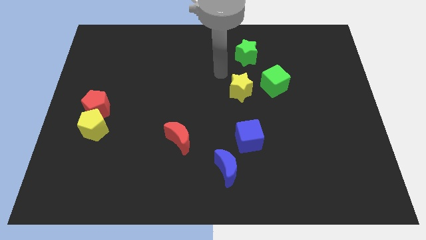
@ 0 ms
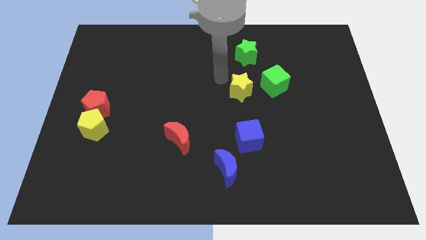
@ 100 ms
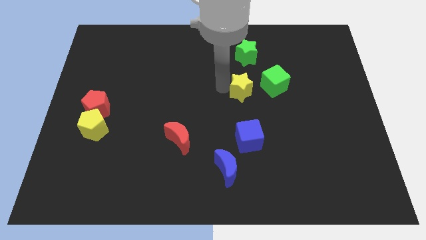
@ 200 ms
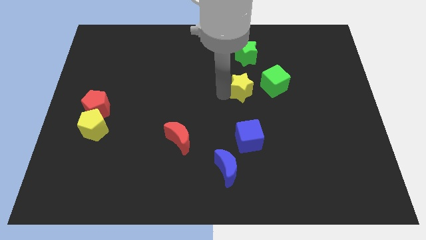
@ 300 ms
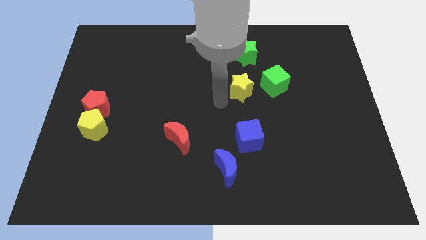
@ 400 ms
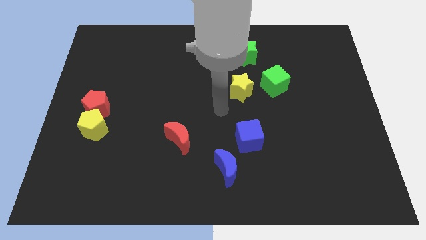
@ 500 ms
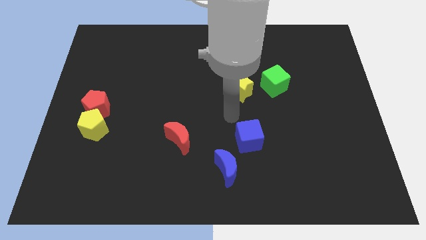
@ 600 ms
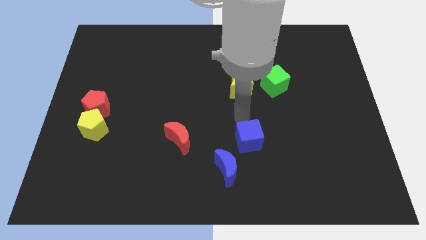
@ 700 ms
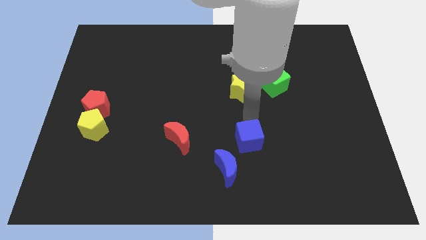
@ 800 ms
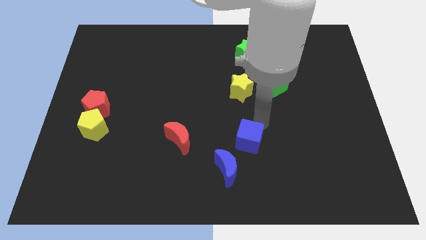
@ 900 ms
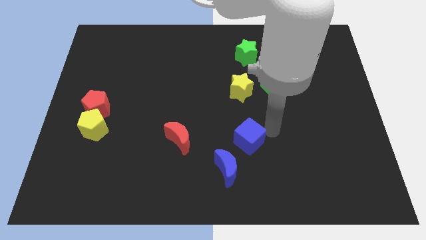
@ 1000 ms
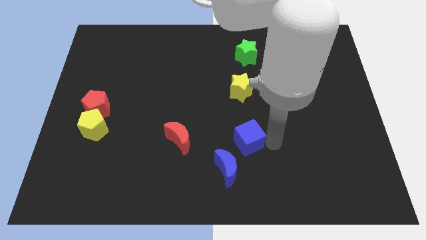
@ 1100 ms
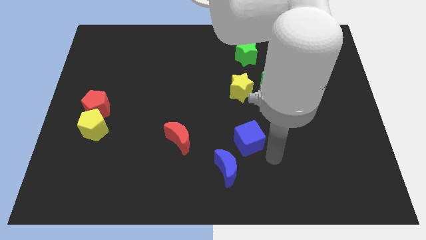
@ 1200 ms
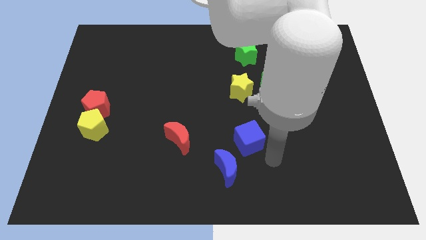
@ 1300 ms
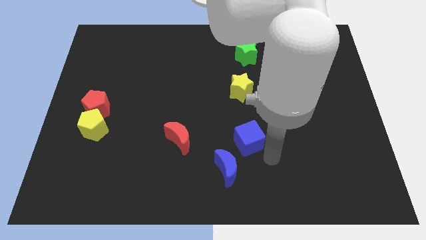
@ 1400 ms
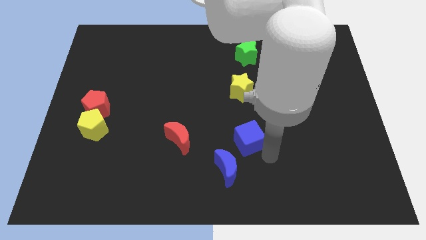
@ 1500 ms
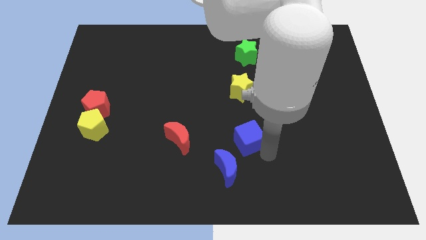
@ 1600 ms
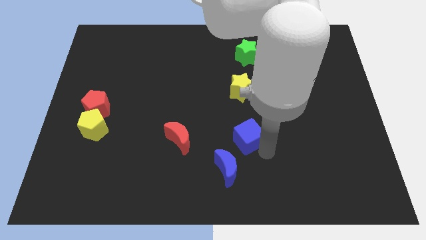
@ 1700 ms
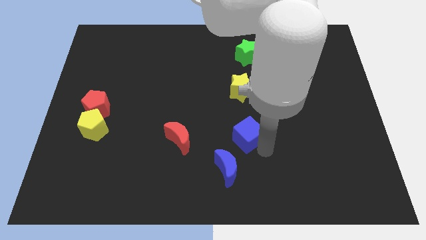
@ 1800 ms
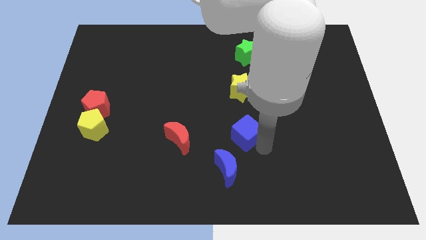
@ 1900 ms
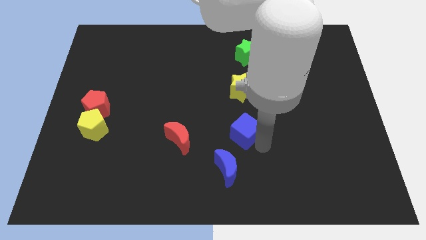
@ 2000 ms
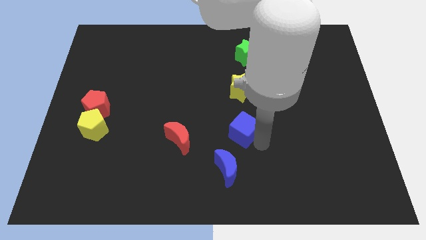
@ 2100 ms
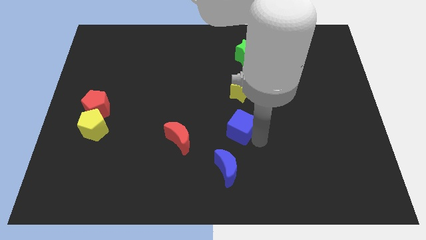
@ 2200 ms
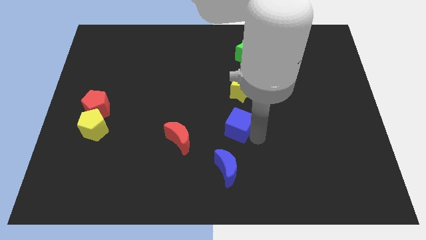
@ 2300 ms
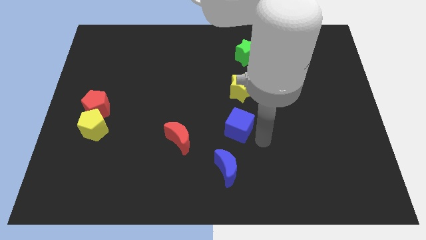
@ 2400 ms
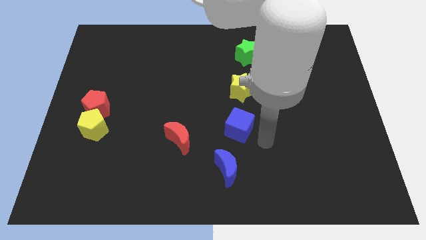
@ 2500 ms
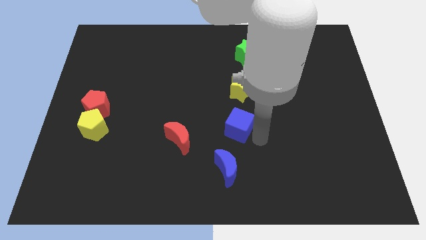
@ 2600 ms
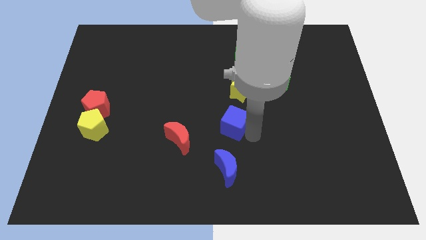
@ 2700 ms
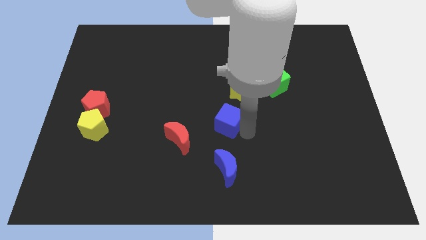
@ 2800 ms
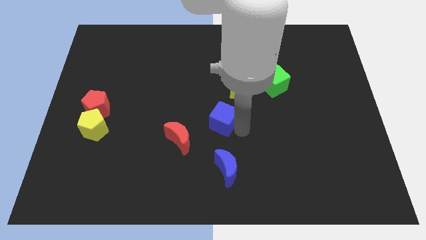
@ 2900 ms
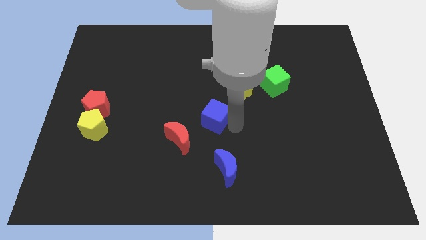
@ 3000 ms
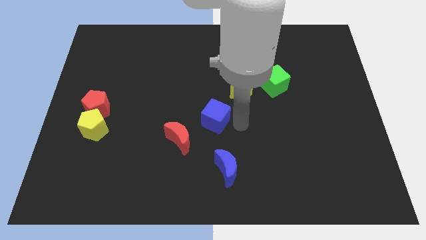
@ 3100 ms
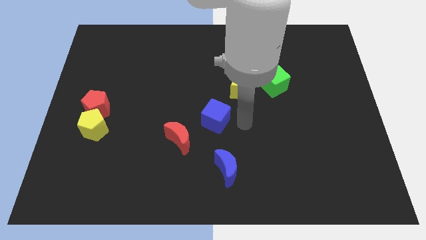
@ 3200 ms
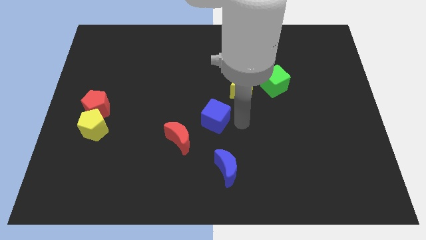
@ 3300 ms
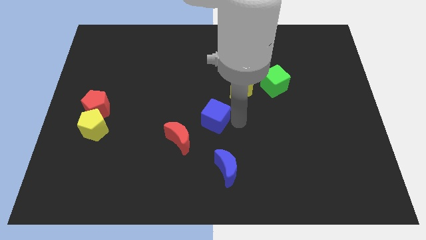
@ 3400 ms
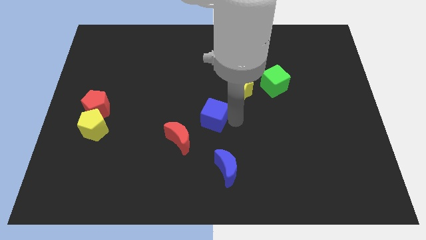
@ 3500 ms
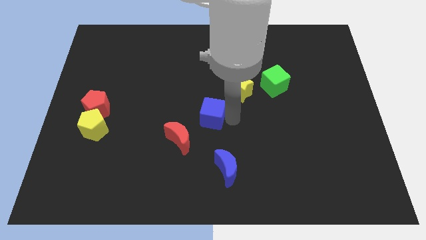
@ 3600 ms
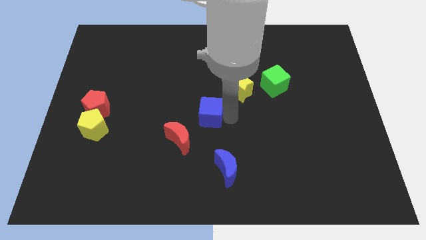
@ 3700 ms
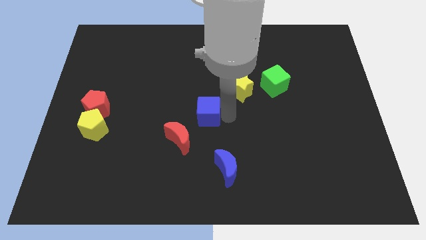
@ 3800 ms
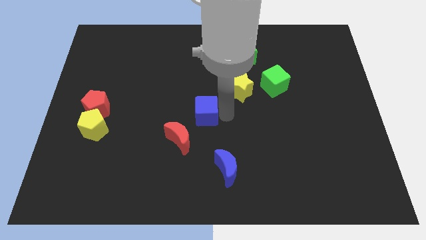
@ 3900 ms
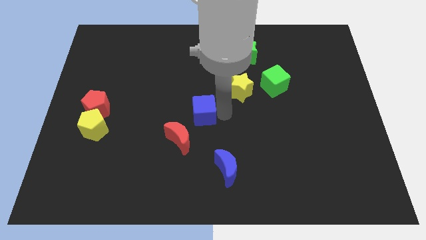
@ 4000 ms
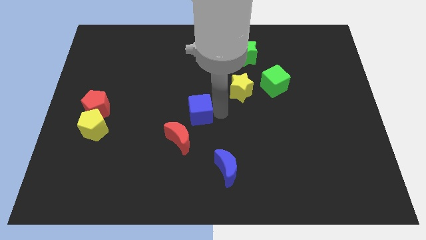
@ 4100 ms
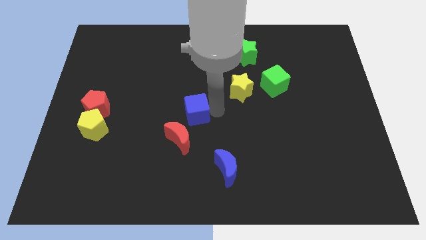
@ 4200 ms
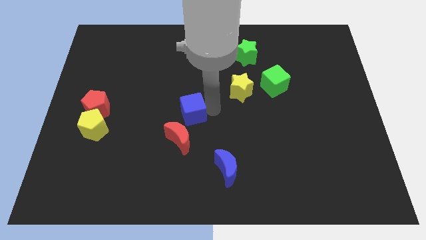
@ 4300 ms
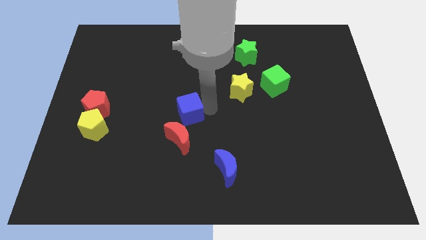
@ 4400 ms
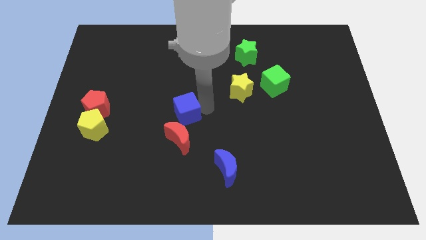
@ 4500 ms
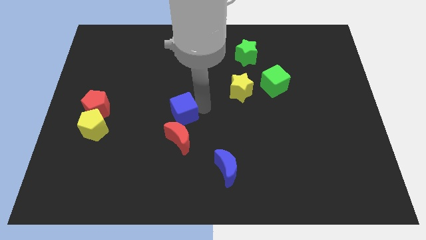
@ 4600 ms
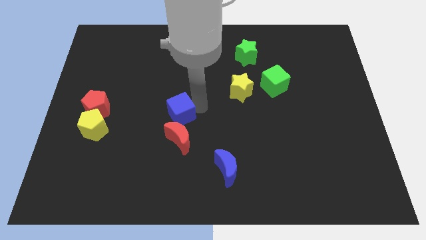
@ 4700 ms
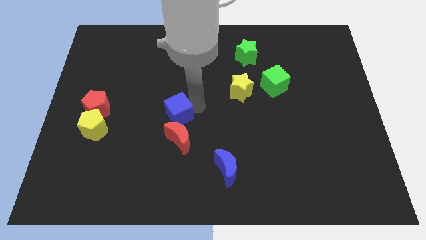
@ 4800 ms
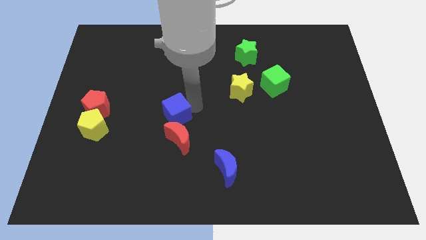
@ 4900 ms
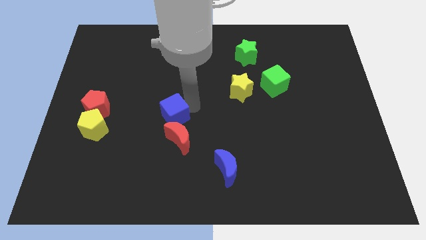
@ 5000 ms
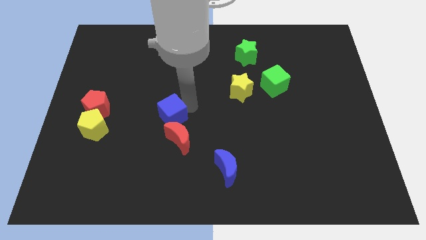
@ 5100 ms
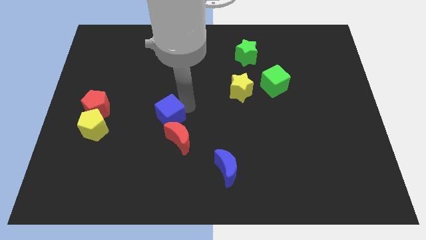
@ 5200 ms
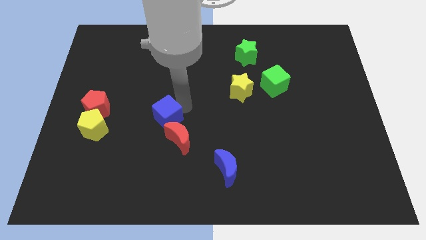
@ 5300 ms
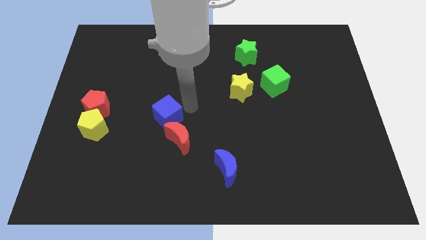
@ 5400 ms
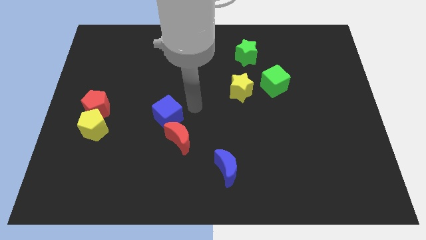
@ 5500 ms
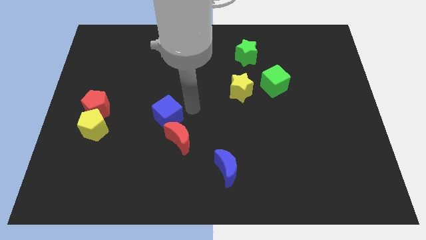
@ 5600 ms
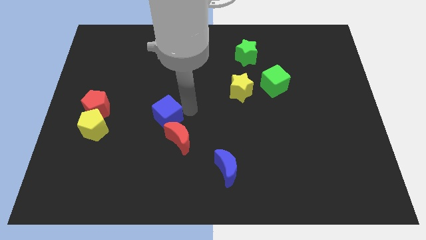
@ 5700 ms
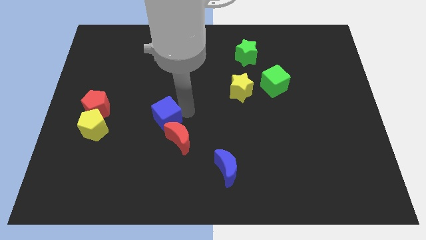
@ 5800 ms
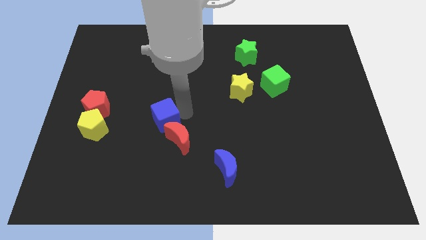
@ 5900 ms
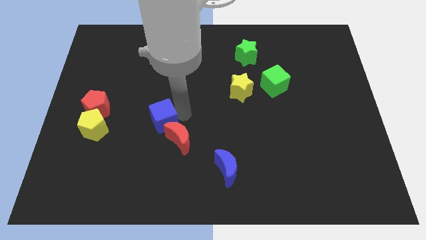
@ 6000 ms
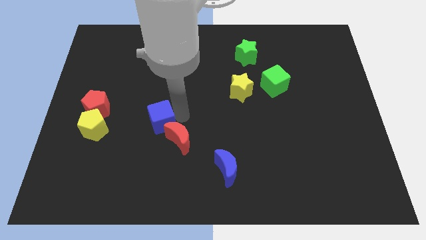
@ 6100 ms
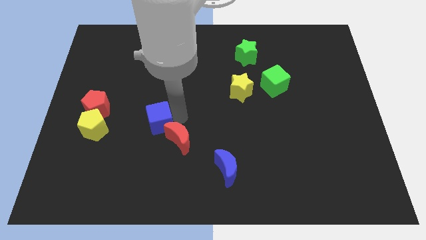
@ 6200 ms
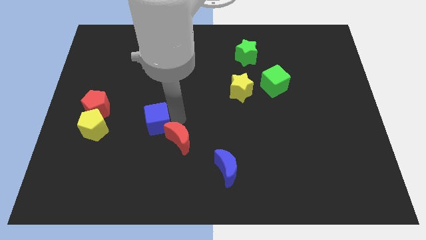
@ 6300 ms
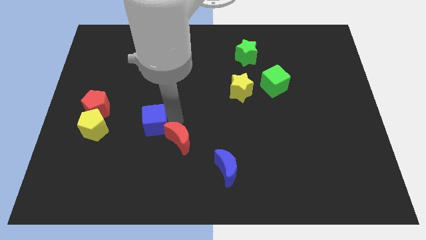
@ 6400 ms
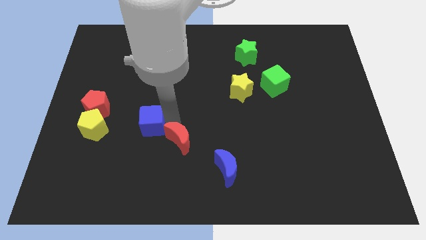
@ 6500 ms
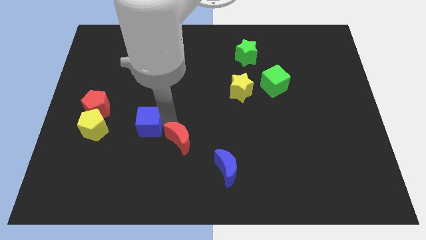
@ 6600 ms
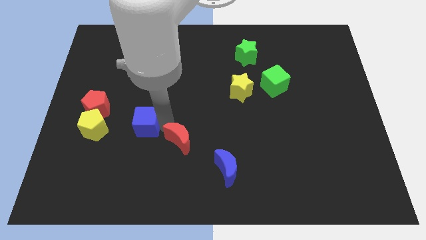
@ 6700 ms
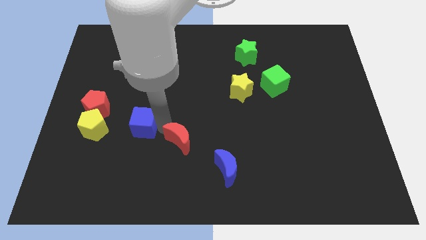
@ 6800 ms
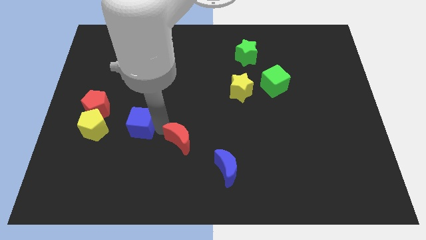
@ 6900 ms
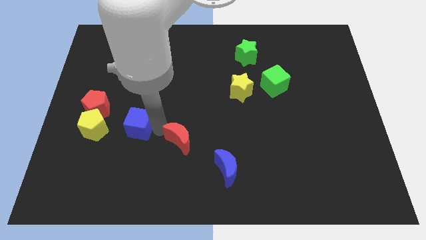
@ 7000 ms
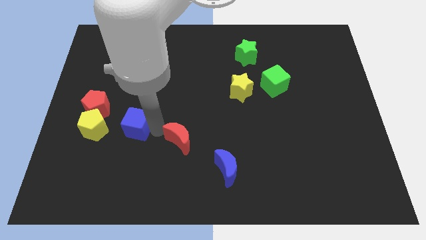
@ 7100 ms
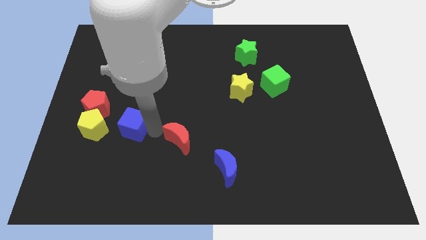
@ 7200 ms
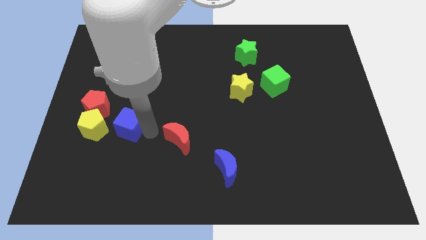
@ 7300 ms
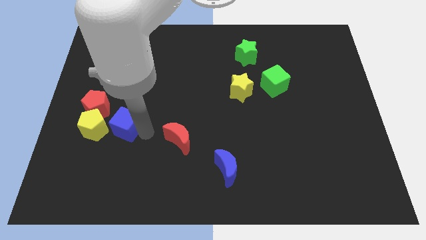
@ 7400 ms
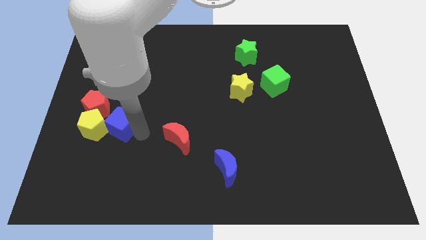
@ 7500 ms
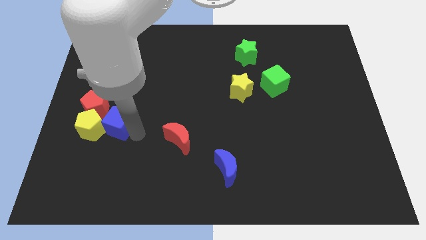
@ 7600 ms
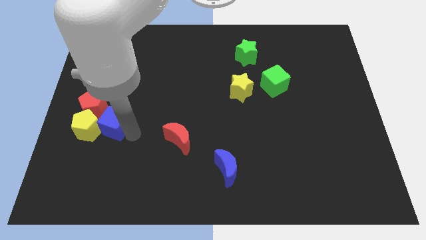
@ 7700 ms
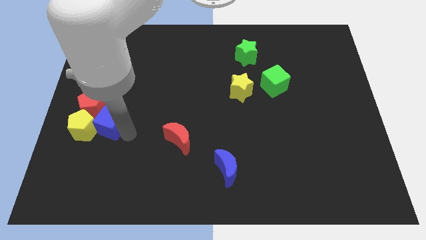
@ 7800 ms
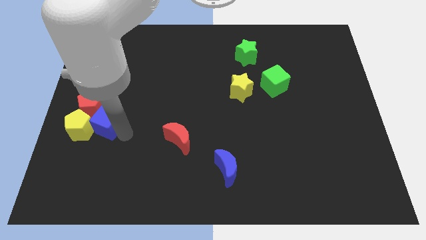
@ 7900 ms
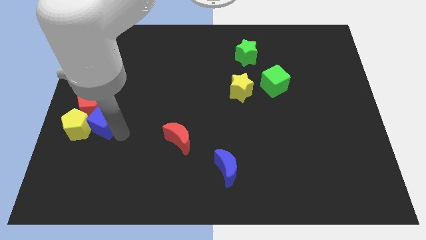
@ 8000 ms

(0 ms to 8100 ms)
put the blue cube next to the red pentagon

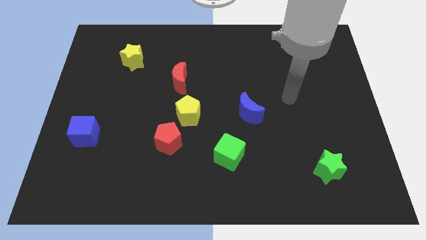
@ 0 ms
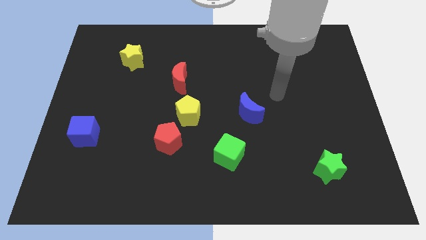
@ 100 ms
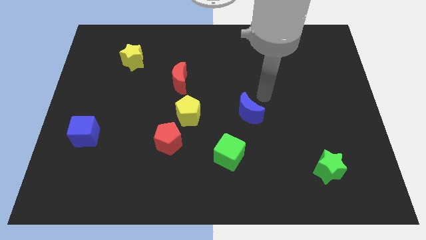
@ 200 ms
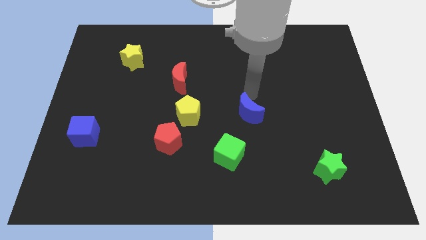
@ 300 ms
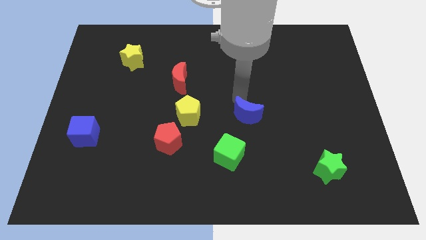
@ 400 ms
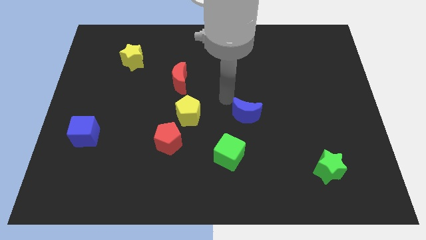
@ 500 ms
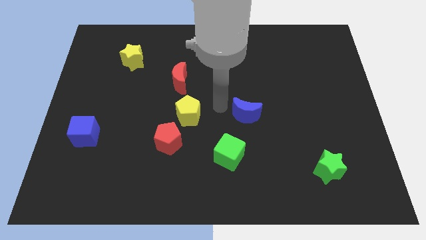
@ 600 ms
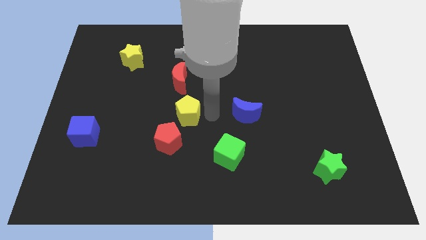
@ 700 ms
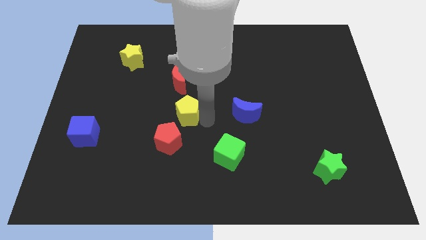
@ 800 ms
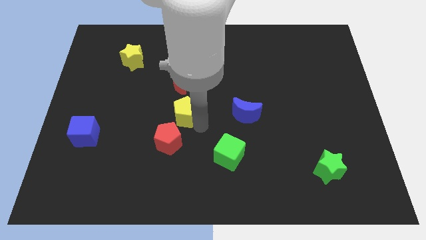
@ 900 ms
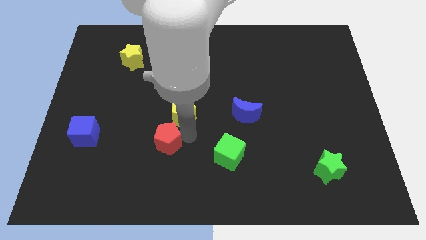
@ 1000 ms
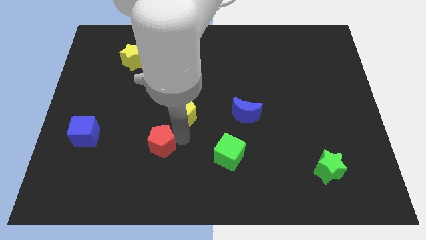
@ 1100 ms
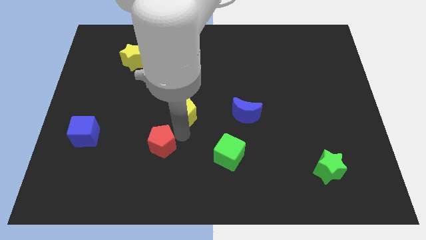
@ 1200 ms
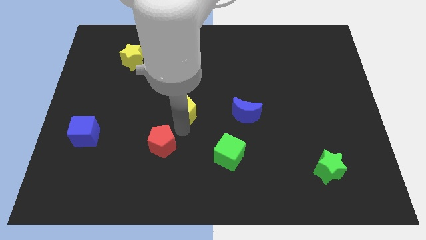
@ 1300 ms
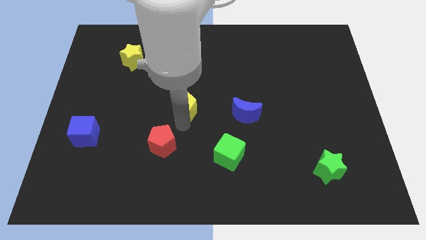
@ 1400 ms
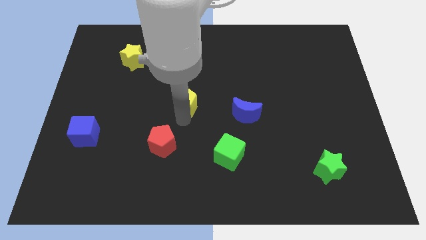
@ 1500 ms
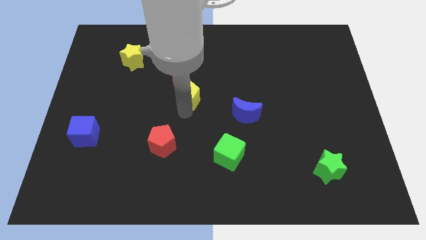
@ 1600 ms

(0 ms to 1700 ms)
slide the yellow pentagon close to the red moon
